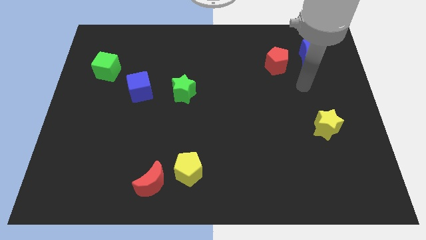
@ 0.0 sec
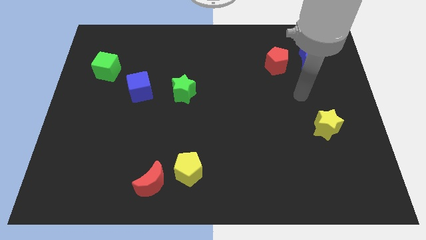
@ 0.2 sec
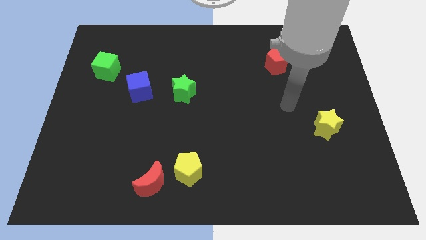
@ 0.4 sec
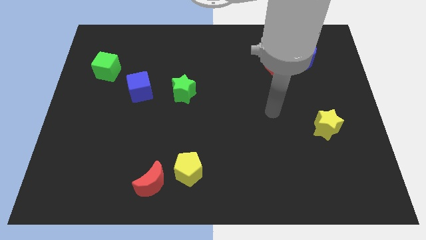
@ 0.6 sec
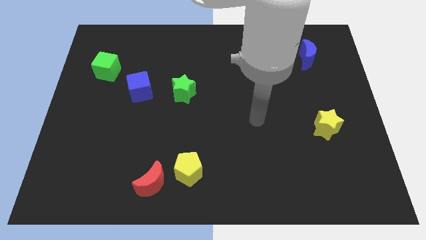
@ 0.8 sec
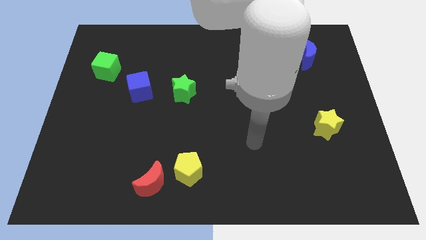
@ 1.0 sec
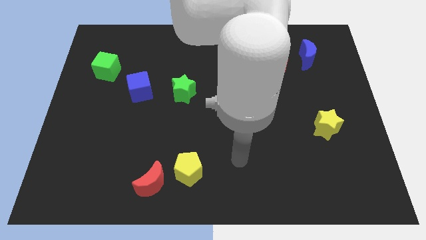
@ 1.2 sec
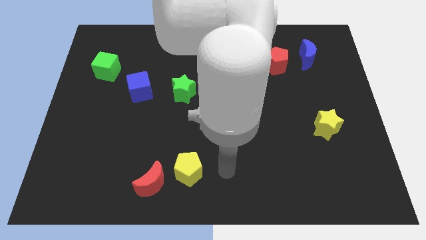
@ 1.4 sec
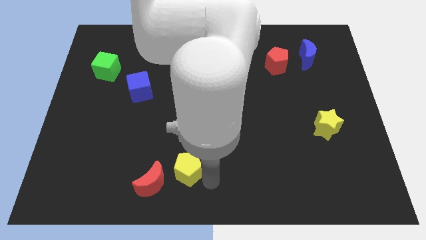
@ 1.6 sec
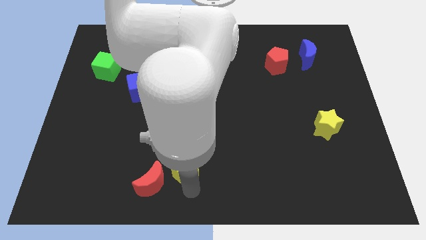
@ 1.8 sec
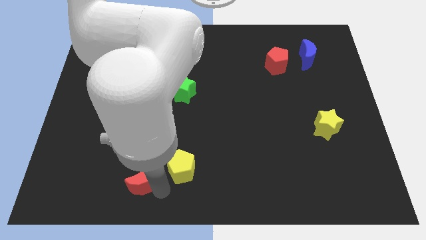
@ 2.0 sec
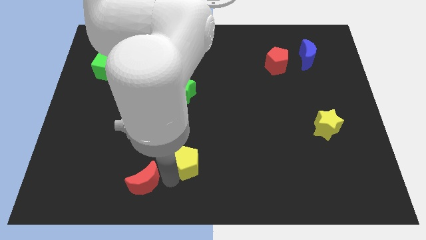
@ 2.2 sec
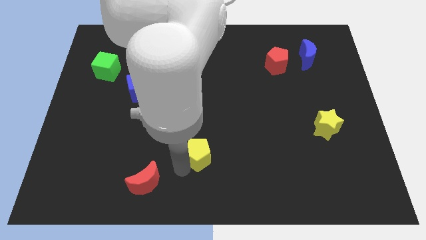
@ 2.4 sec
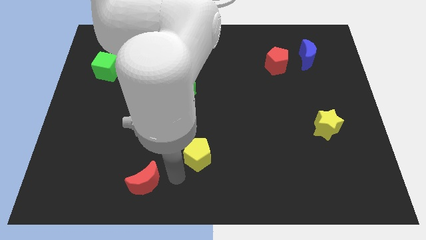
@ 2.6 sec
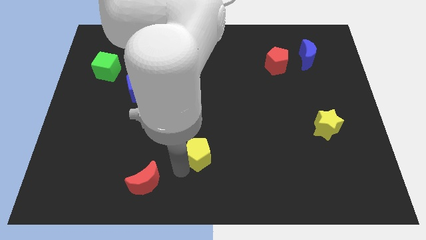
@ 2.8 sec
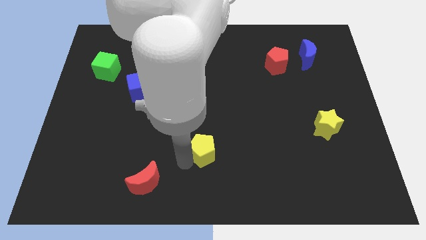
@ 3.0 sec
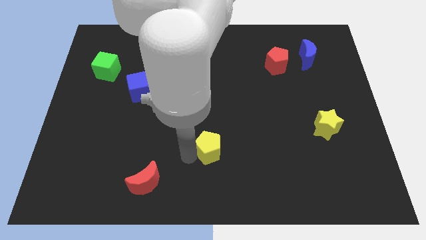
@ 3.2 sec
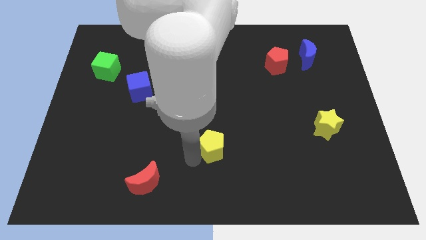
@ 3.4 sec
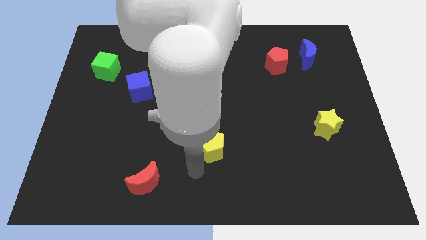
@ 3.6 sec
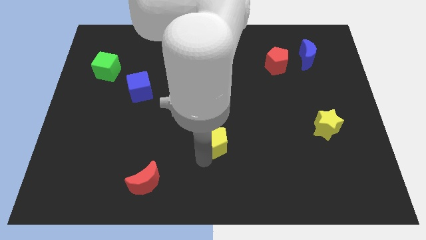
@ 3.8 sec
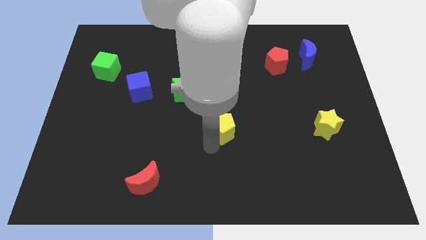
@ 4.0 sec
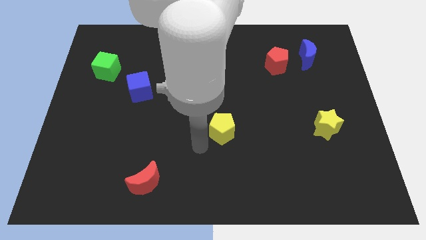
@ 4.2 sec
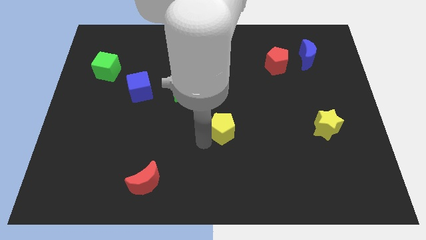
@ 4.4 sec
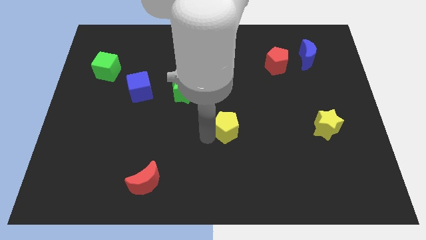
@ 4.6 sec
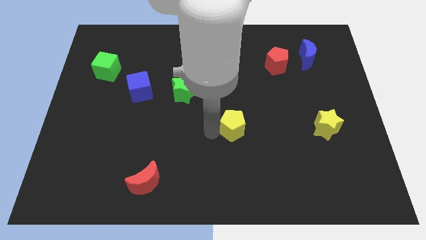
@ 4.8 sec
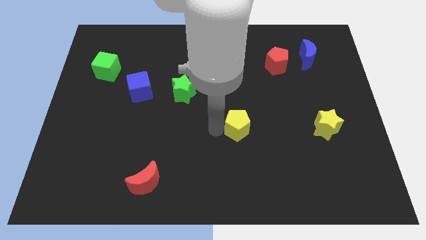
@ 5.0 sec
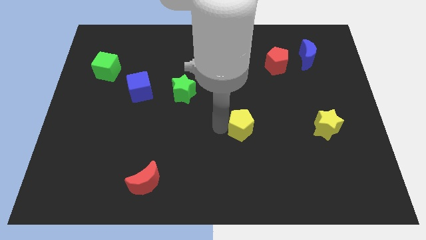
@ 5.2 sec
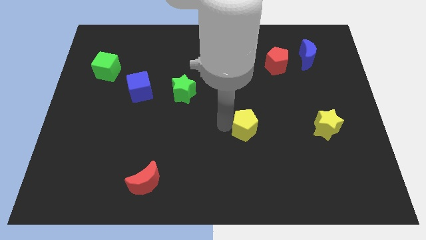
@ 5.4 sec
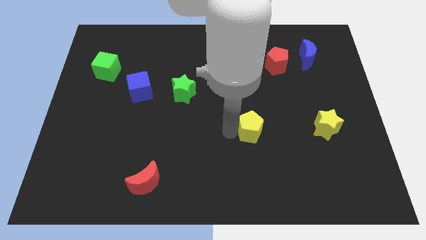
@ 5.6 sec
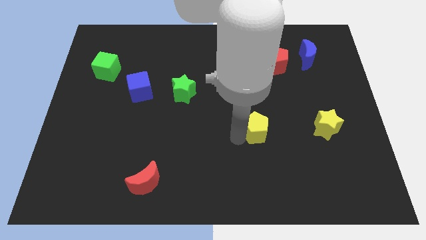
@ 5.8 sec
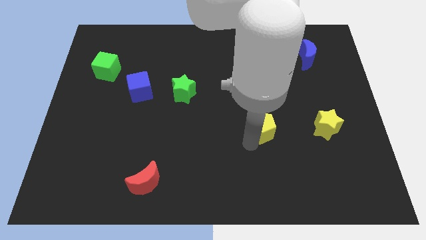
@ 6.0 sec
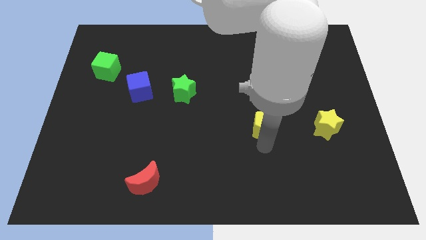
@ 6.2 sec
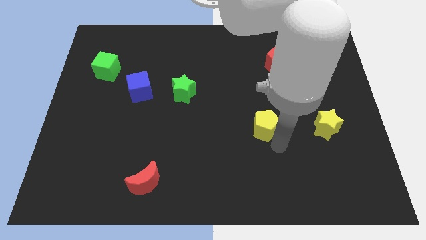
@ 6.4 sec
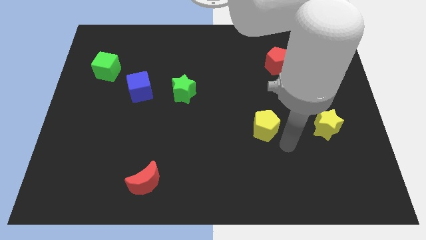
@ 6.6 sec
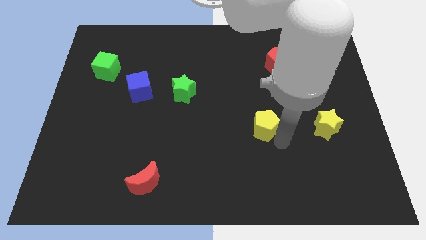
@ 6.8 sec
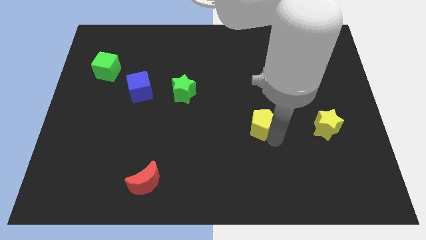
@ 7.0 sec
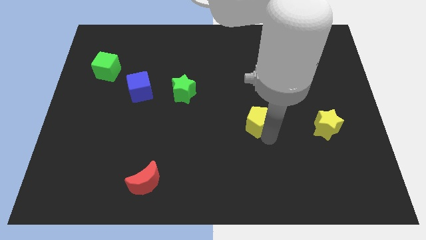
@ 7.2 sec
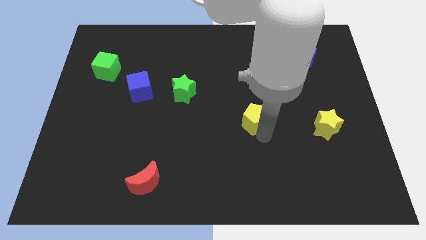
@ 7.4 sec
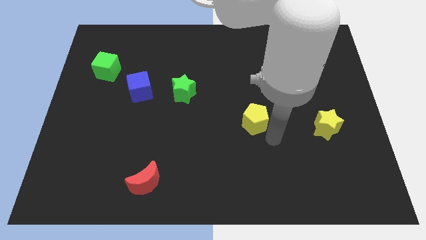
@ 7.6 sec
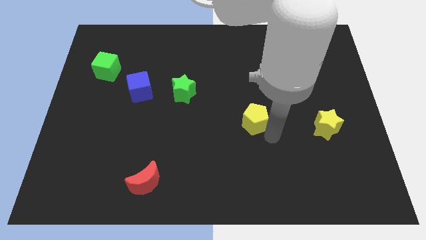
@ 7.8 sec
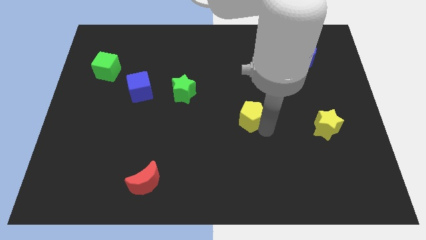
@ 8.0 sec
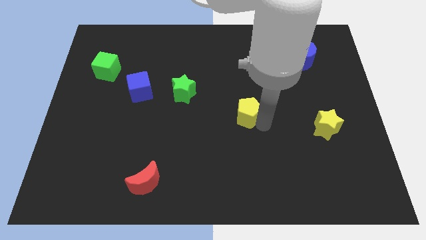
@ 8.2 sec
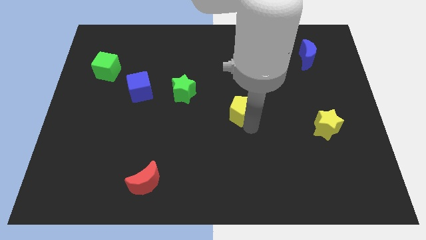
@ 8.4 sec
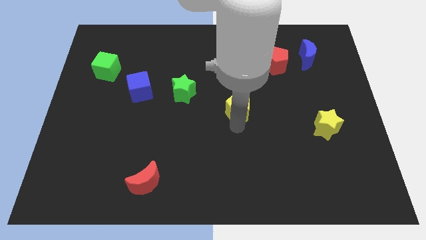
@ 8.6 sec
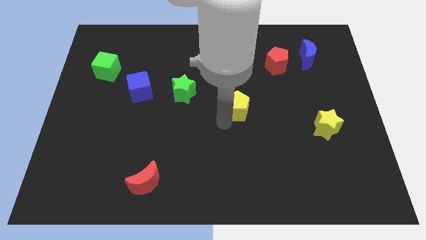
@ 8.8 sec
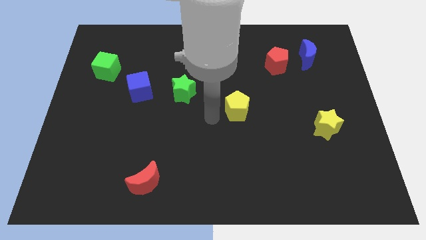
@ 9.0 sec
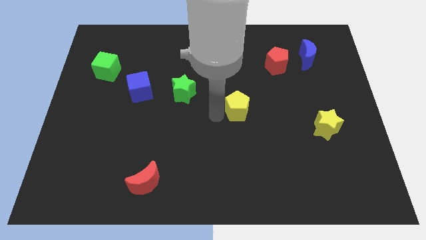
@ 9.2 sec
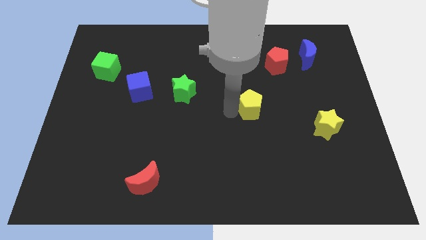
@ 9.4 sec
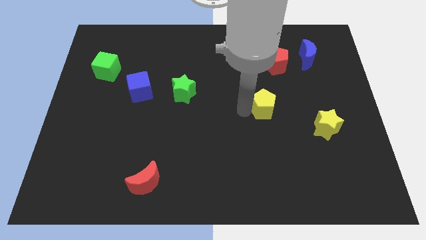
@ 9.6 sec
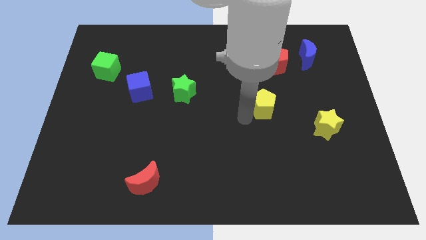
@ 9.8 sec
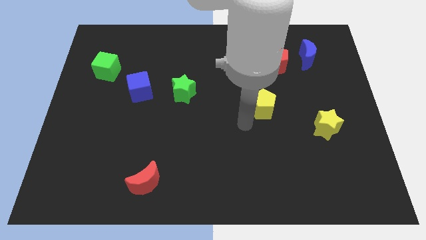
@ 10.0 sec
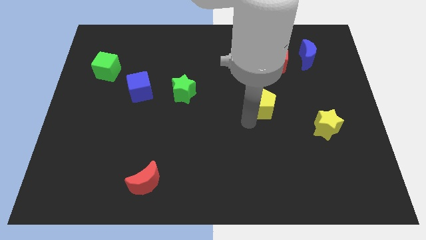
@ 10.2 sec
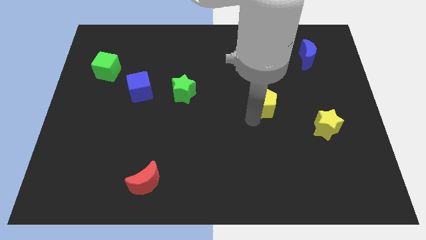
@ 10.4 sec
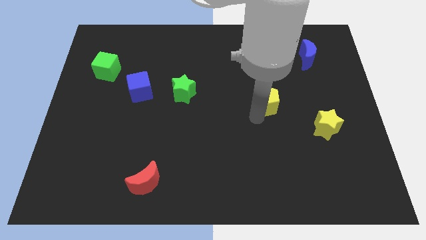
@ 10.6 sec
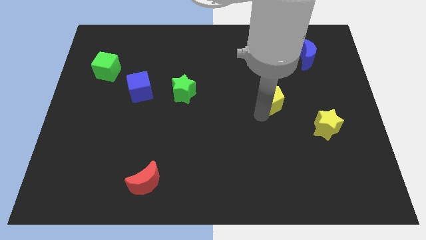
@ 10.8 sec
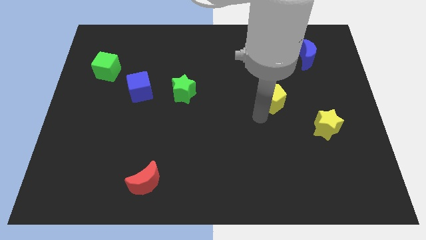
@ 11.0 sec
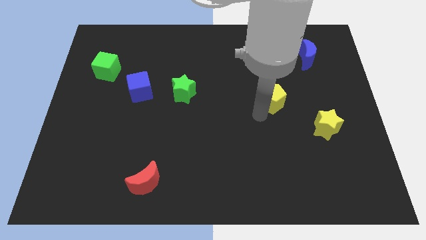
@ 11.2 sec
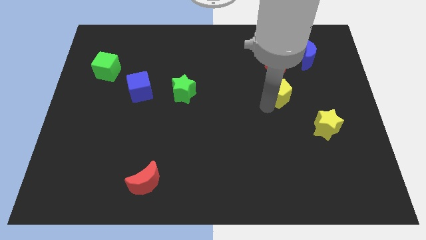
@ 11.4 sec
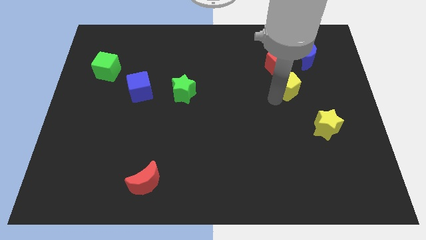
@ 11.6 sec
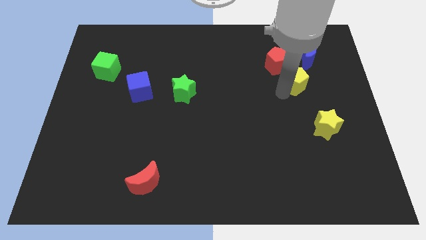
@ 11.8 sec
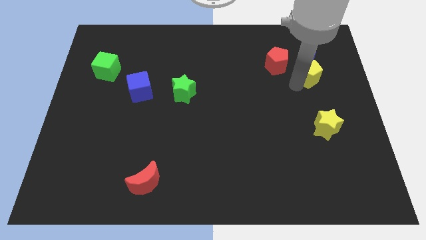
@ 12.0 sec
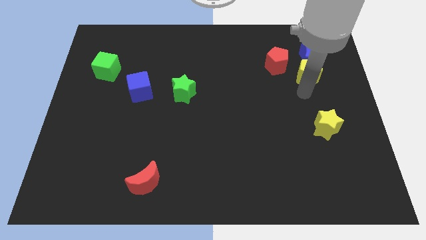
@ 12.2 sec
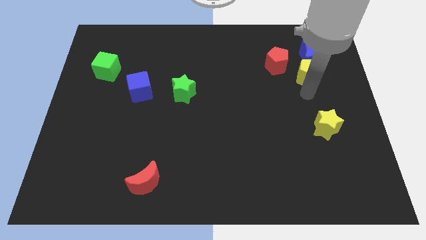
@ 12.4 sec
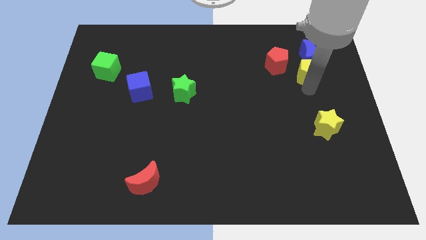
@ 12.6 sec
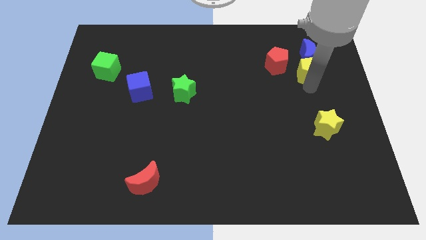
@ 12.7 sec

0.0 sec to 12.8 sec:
push the yellow pentagon towards the blue moon

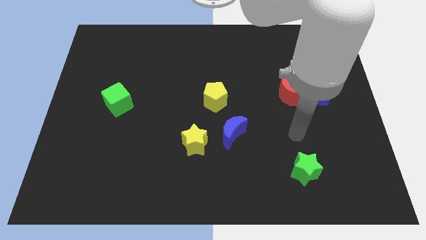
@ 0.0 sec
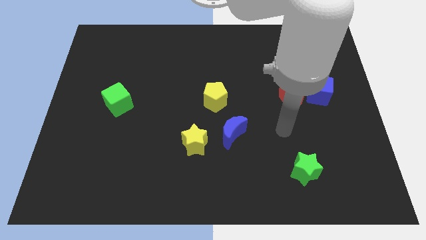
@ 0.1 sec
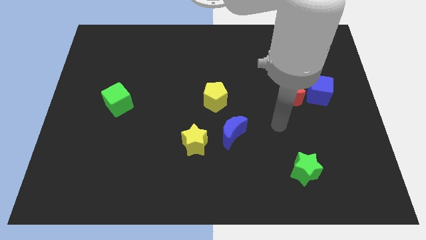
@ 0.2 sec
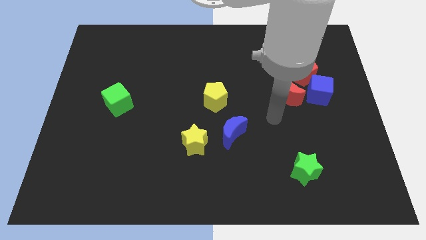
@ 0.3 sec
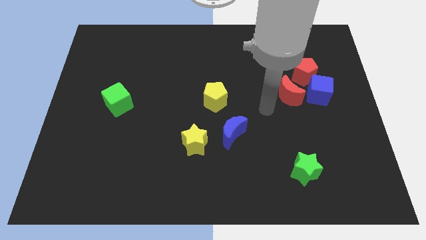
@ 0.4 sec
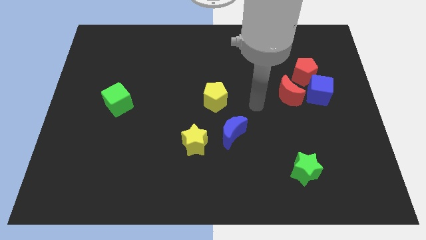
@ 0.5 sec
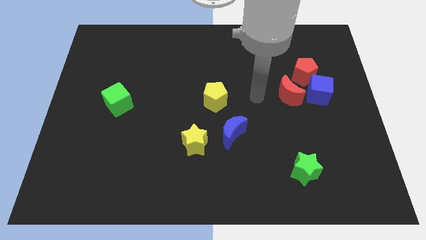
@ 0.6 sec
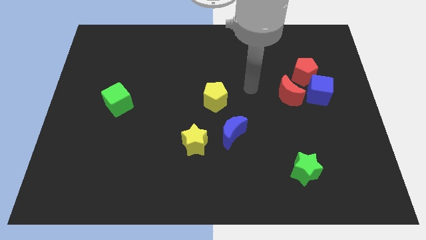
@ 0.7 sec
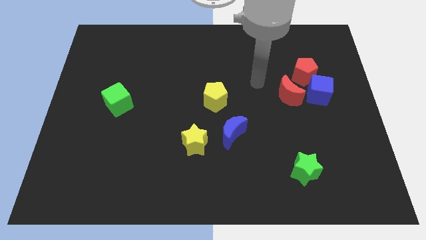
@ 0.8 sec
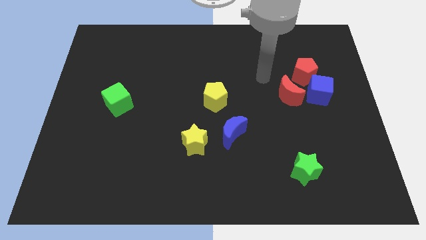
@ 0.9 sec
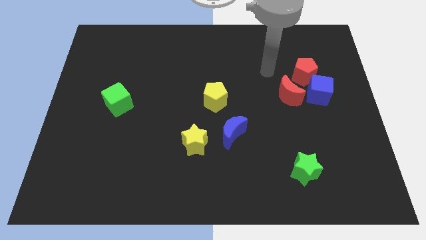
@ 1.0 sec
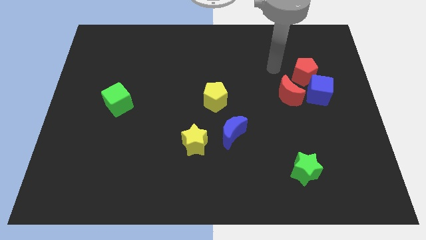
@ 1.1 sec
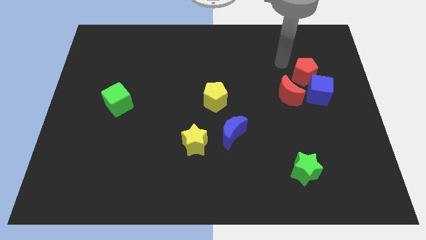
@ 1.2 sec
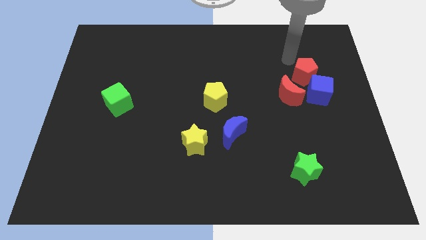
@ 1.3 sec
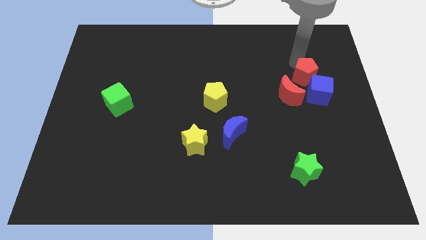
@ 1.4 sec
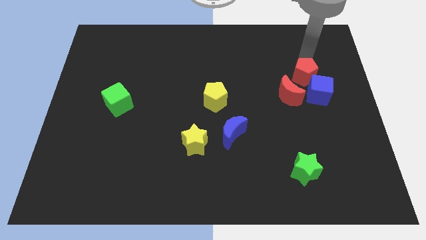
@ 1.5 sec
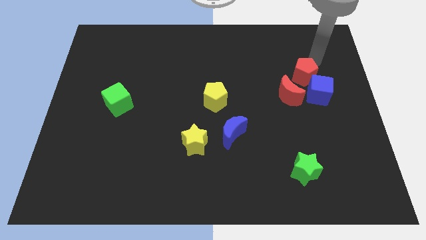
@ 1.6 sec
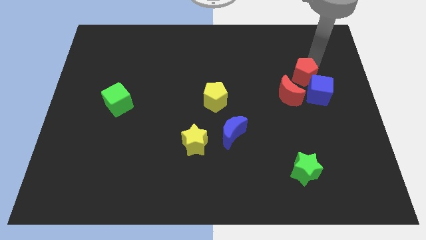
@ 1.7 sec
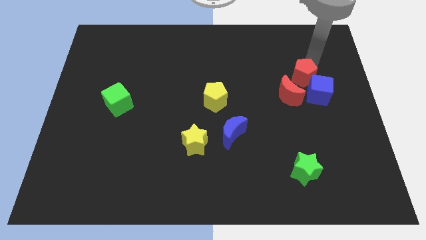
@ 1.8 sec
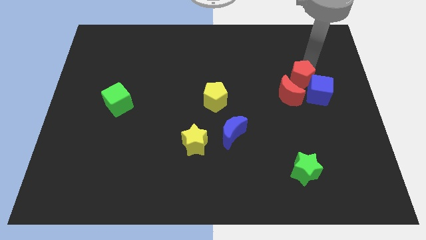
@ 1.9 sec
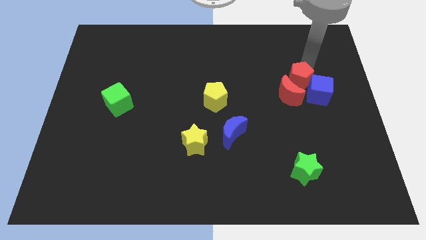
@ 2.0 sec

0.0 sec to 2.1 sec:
push the red pentagon to the red moon
